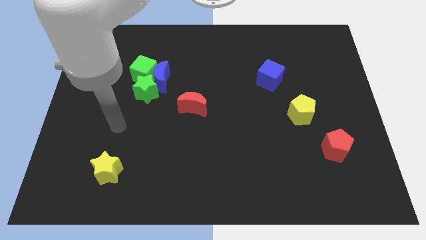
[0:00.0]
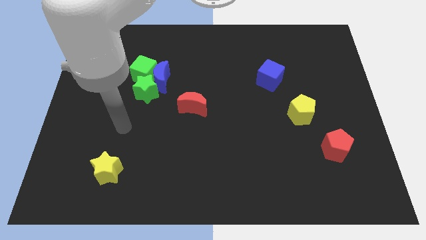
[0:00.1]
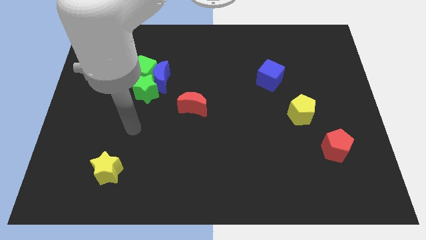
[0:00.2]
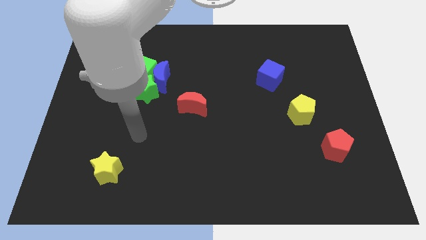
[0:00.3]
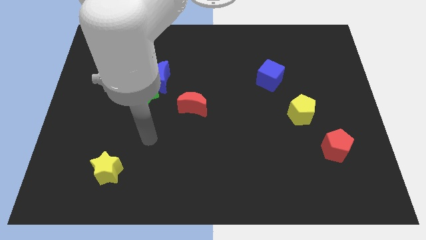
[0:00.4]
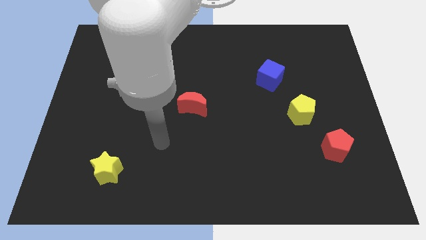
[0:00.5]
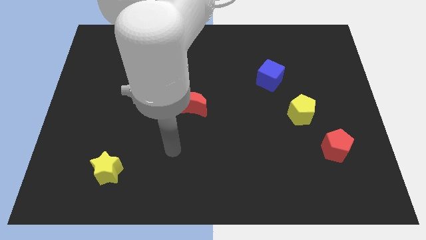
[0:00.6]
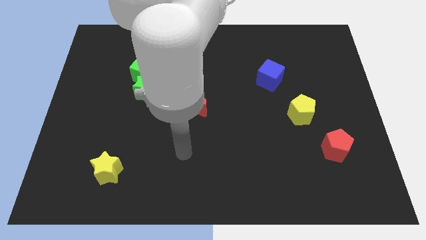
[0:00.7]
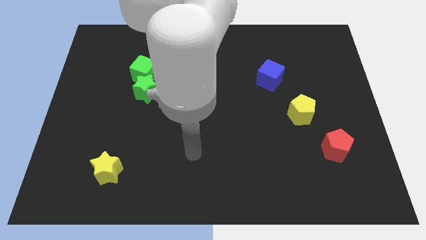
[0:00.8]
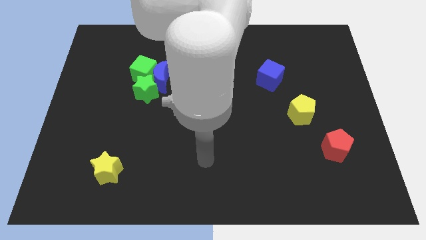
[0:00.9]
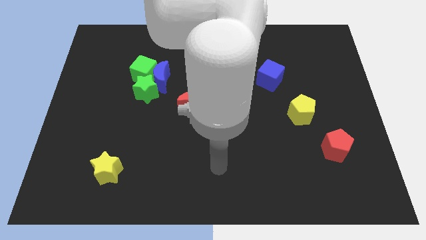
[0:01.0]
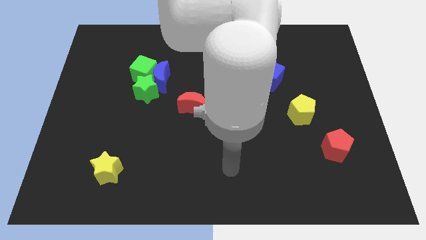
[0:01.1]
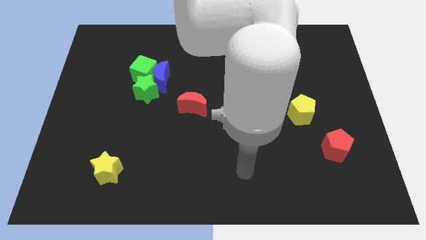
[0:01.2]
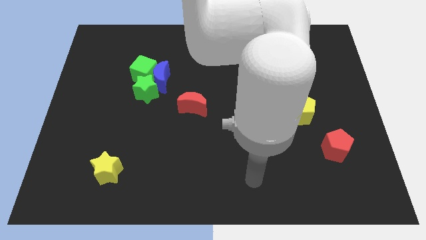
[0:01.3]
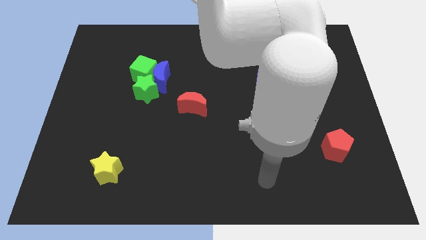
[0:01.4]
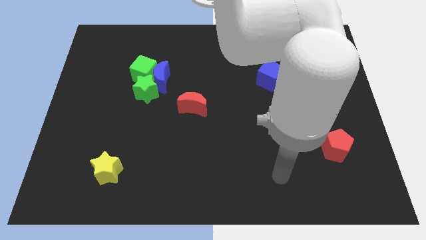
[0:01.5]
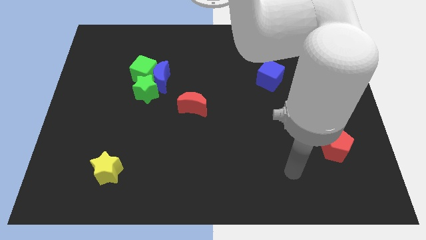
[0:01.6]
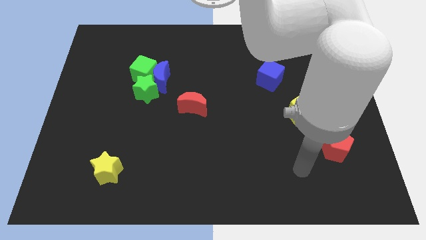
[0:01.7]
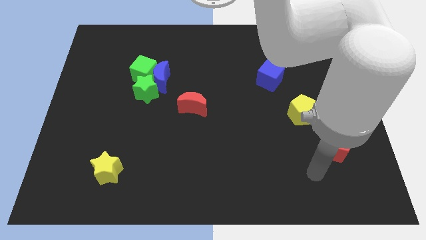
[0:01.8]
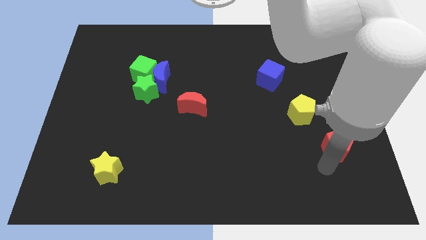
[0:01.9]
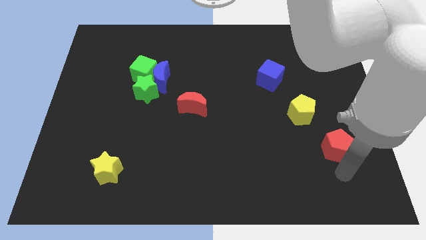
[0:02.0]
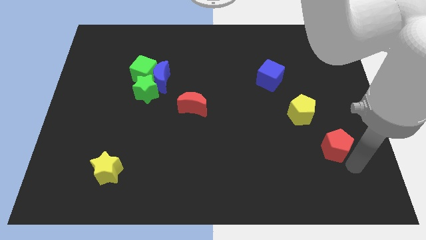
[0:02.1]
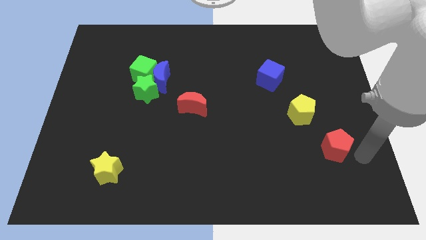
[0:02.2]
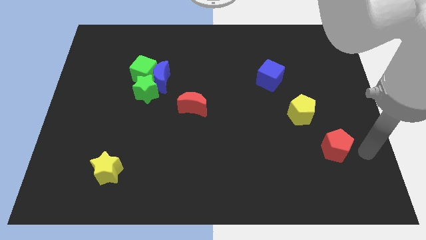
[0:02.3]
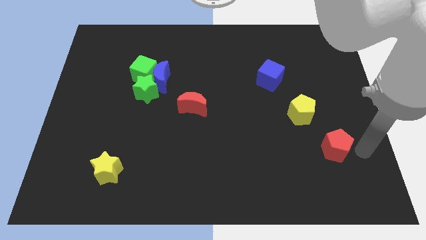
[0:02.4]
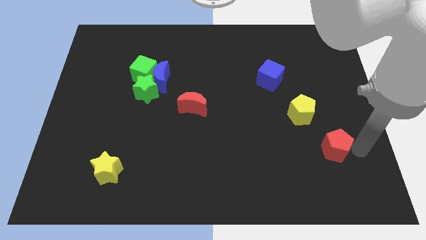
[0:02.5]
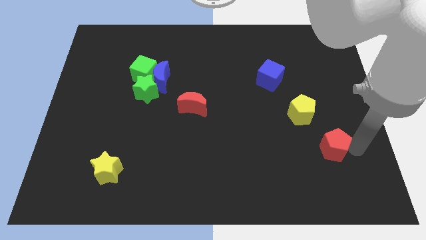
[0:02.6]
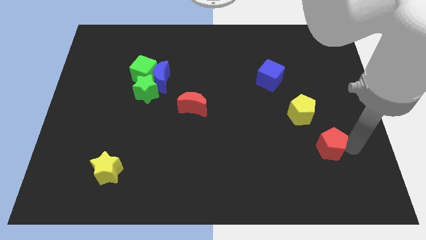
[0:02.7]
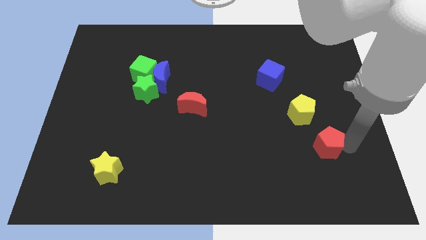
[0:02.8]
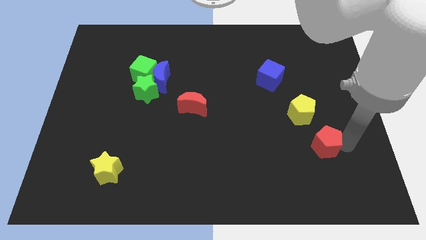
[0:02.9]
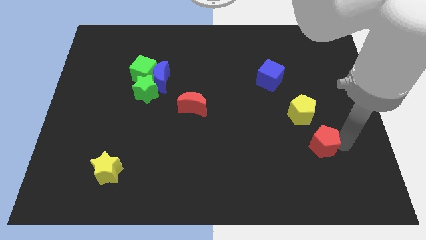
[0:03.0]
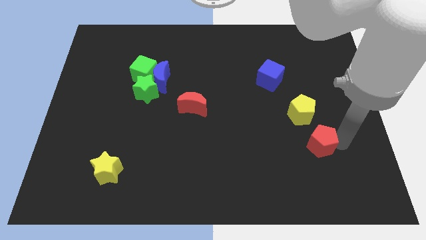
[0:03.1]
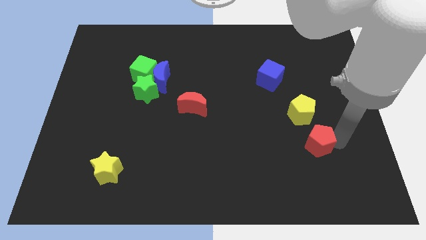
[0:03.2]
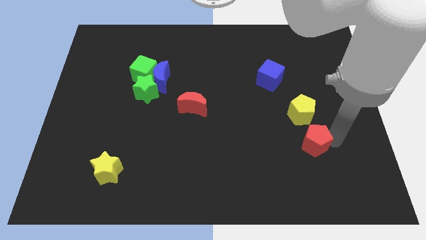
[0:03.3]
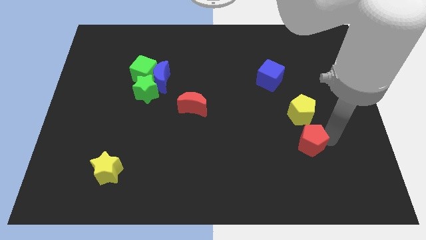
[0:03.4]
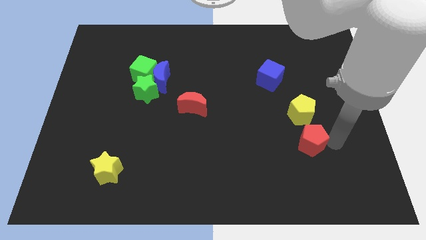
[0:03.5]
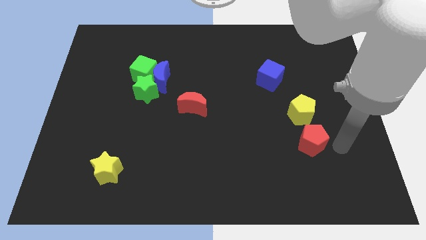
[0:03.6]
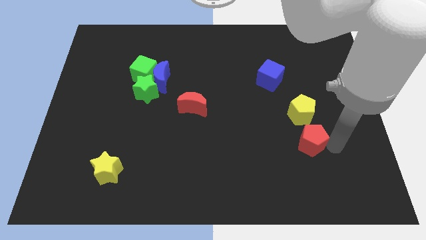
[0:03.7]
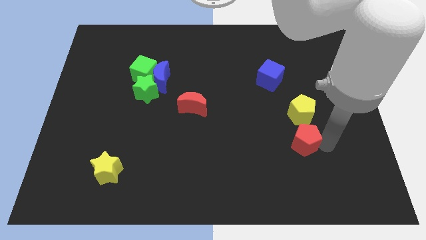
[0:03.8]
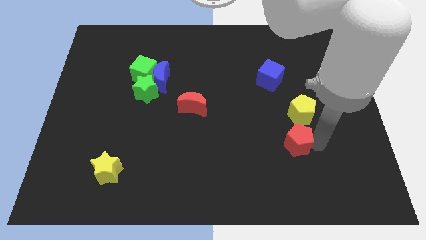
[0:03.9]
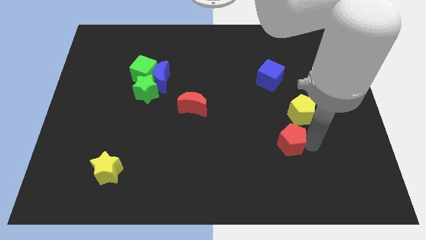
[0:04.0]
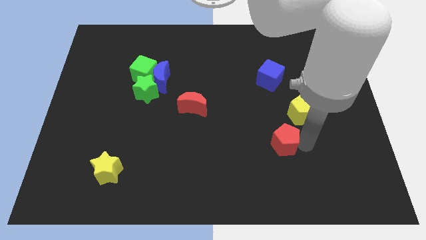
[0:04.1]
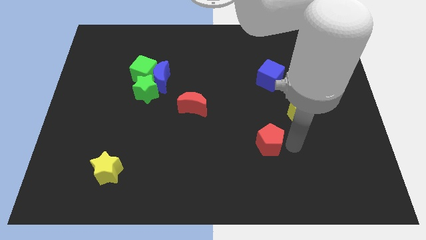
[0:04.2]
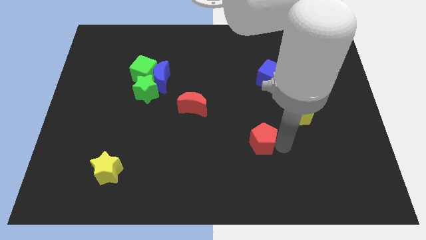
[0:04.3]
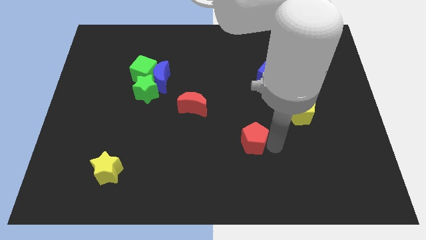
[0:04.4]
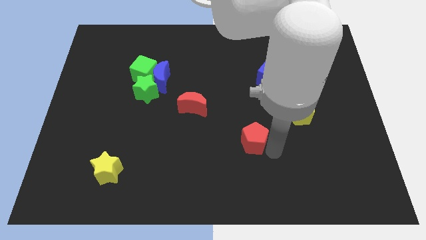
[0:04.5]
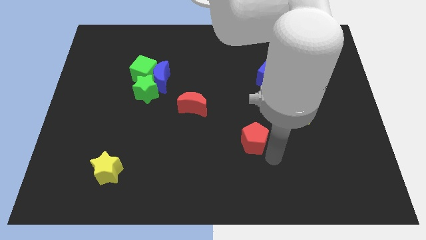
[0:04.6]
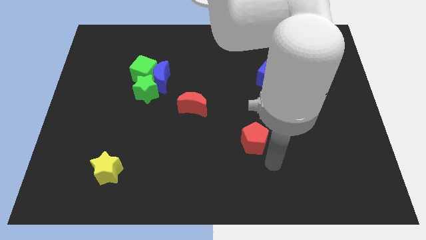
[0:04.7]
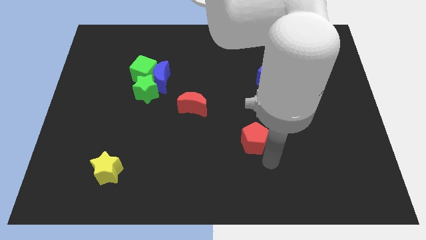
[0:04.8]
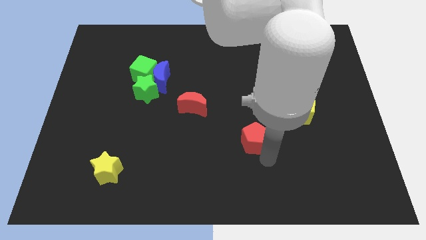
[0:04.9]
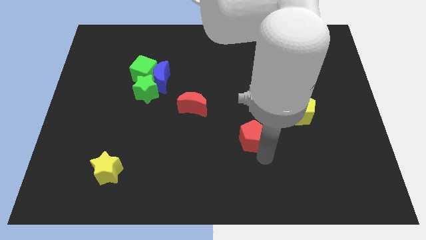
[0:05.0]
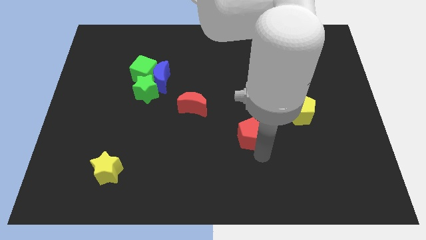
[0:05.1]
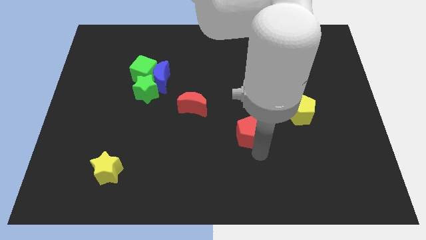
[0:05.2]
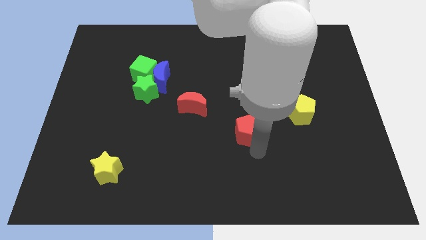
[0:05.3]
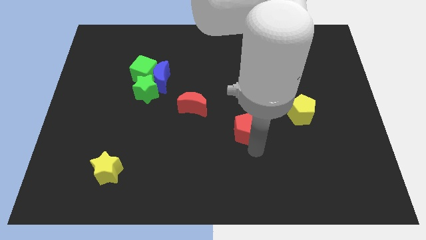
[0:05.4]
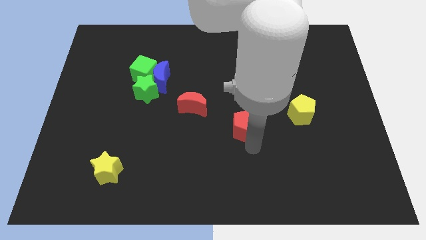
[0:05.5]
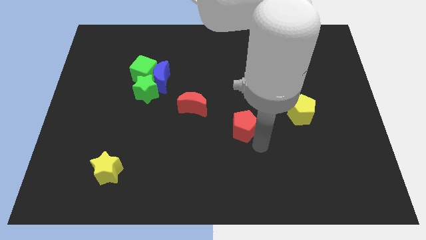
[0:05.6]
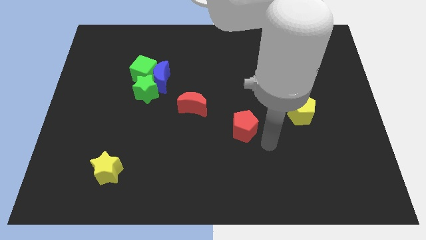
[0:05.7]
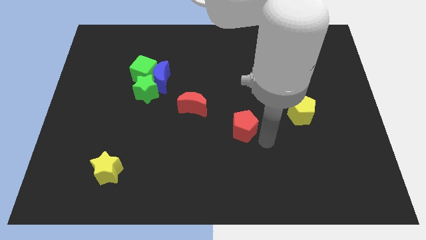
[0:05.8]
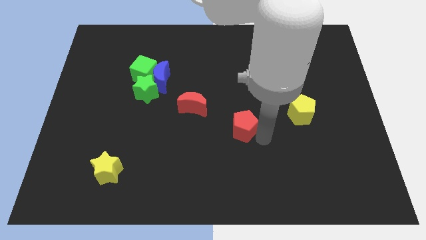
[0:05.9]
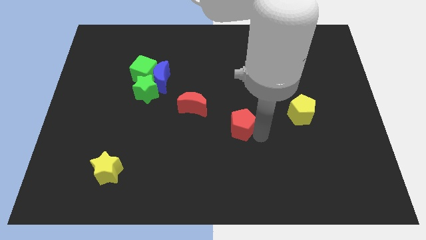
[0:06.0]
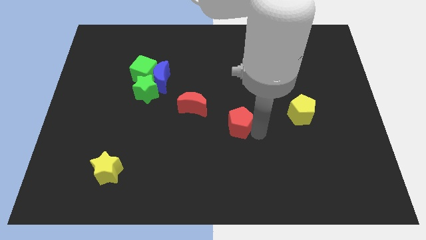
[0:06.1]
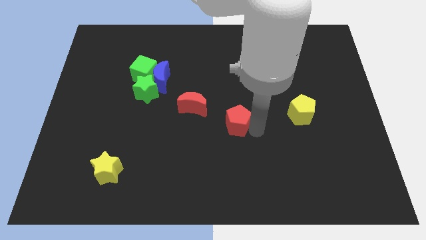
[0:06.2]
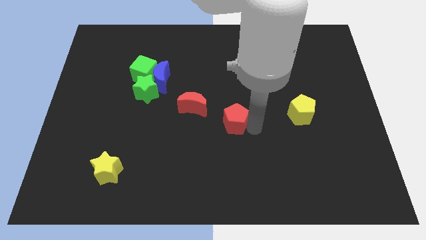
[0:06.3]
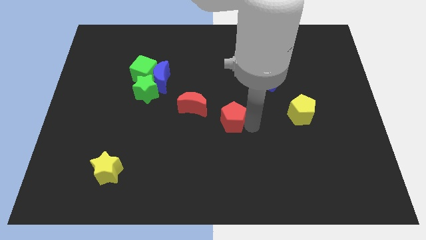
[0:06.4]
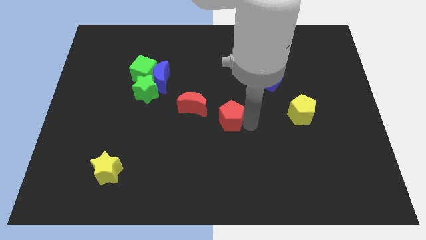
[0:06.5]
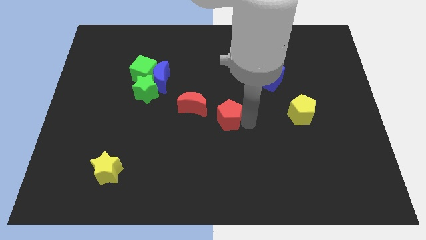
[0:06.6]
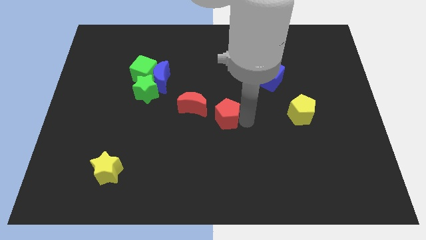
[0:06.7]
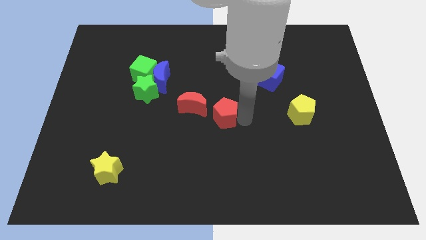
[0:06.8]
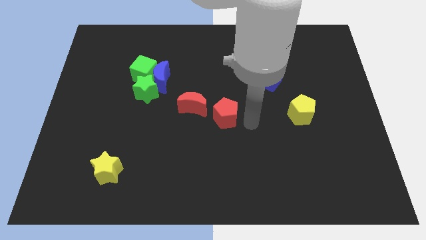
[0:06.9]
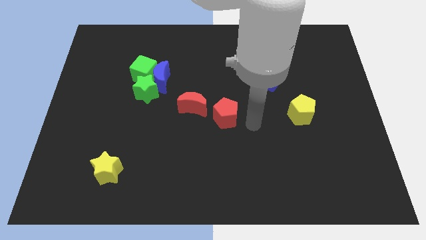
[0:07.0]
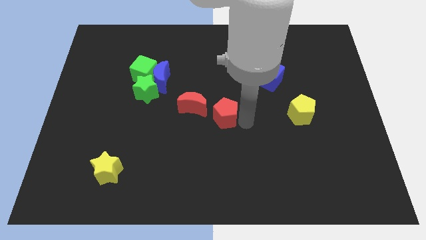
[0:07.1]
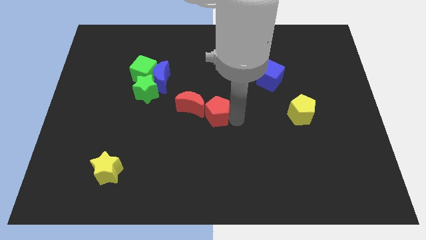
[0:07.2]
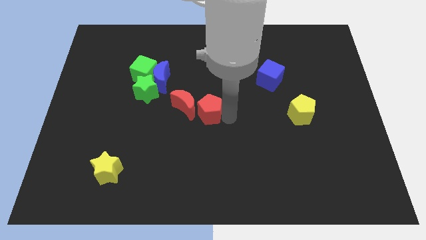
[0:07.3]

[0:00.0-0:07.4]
put the red pentagon towards the red moon

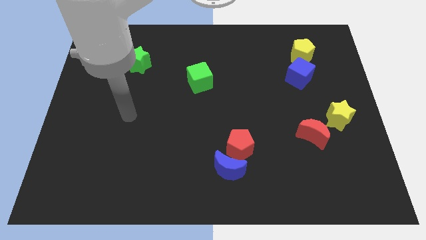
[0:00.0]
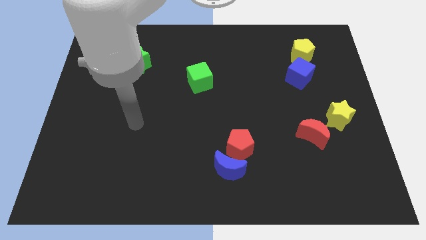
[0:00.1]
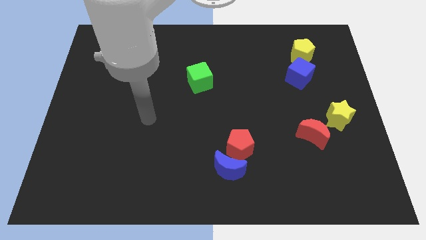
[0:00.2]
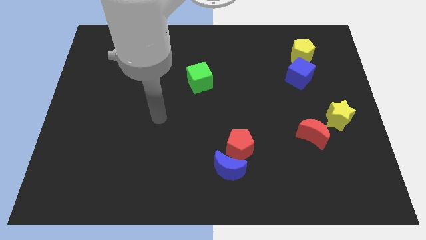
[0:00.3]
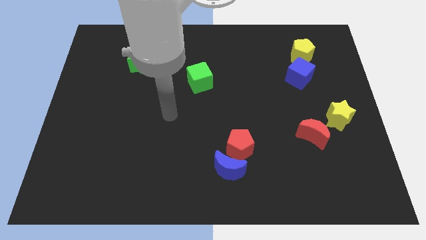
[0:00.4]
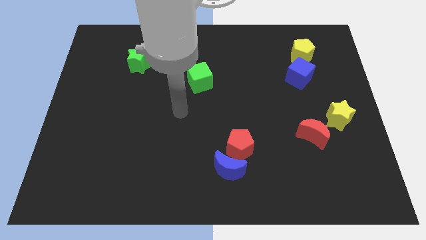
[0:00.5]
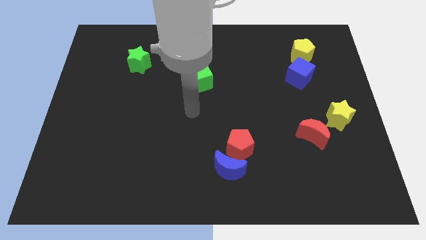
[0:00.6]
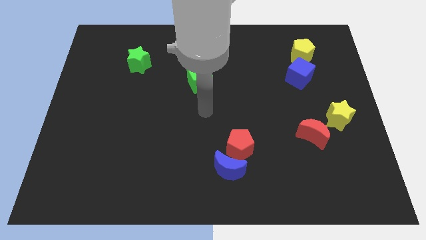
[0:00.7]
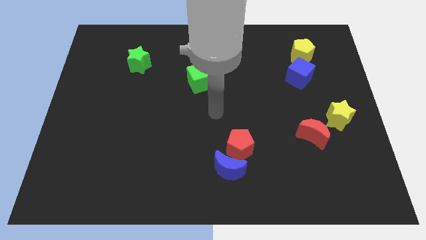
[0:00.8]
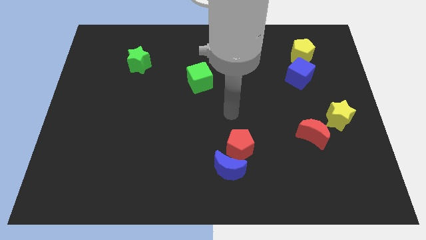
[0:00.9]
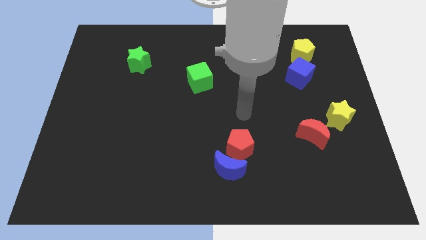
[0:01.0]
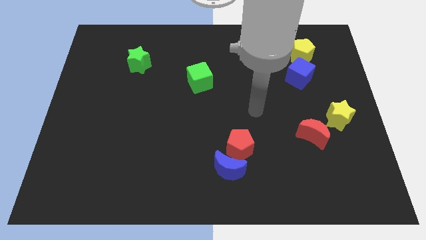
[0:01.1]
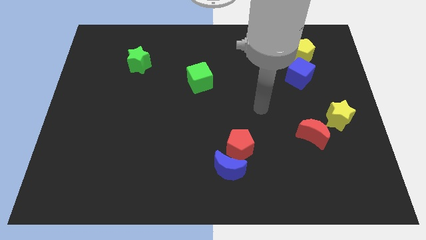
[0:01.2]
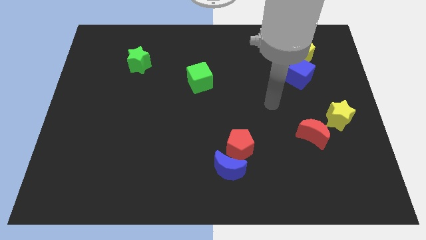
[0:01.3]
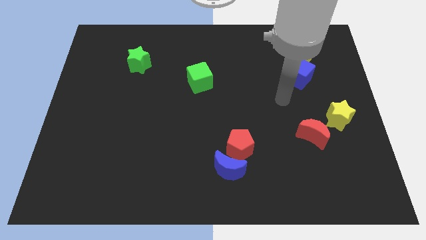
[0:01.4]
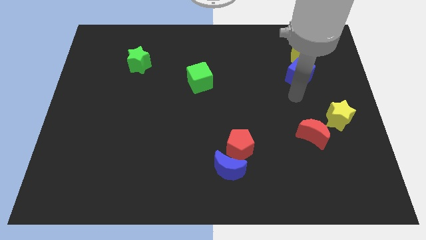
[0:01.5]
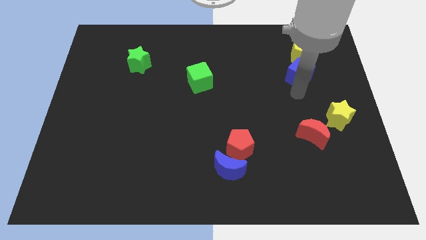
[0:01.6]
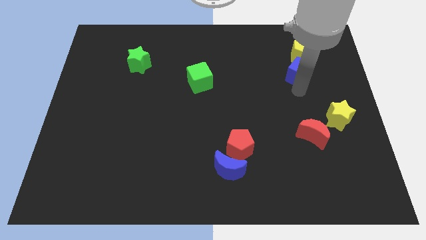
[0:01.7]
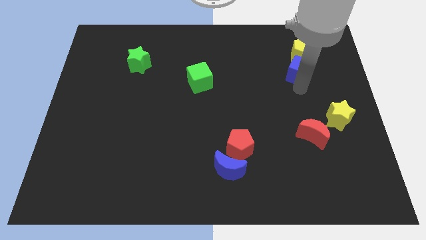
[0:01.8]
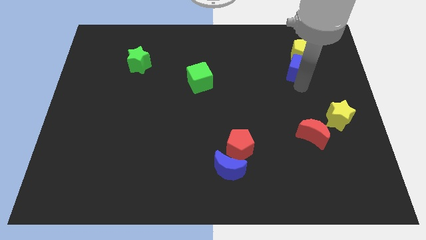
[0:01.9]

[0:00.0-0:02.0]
move the blue cube to the yellow pentagon
